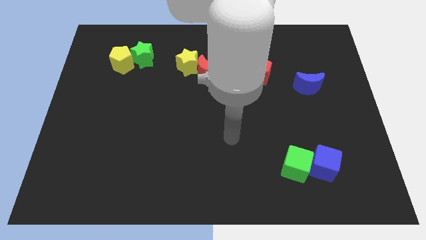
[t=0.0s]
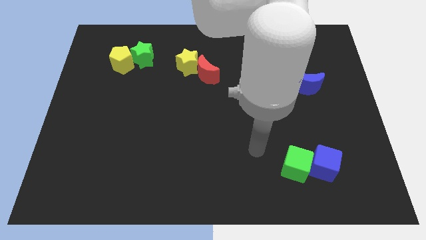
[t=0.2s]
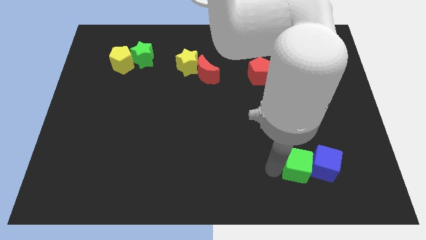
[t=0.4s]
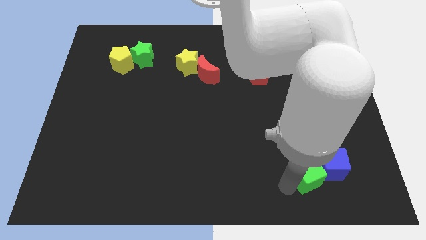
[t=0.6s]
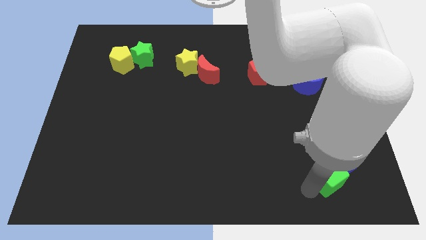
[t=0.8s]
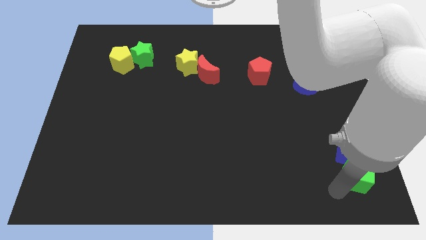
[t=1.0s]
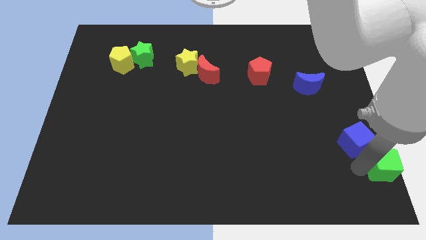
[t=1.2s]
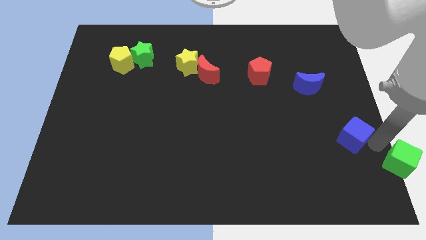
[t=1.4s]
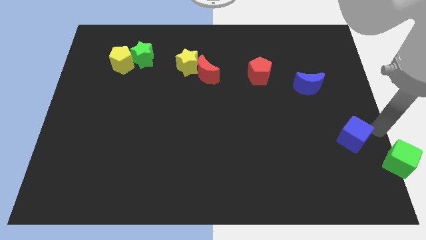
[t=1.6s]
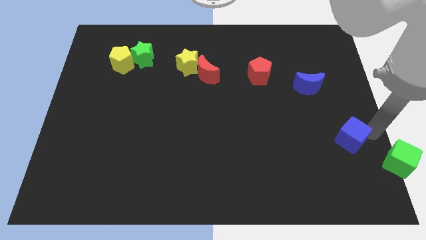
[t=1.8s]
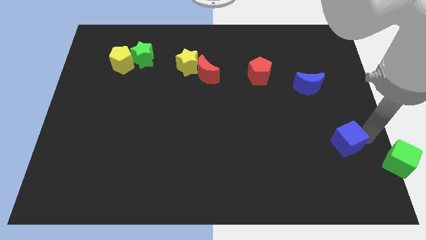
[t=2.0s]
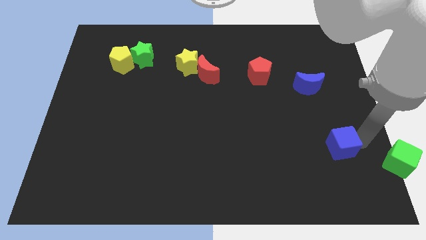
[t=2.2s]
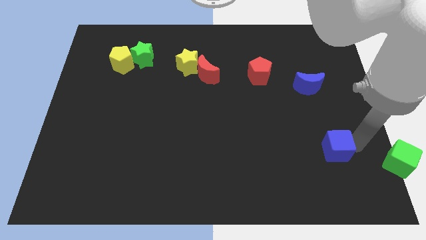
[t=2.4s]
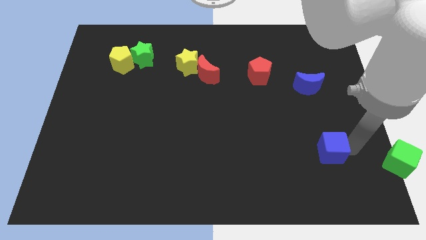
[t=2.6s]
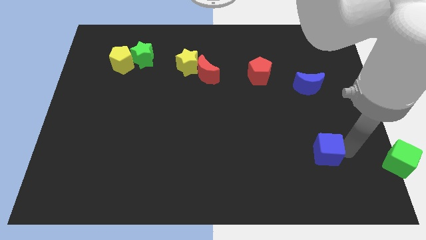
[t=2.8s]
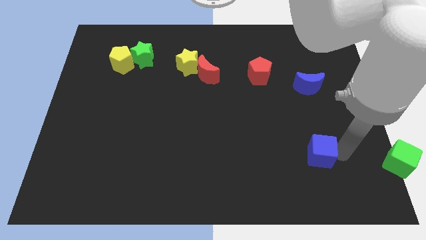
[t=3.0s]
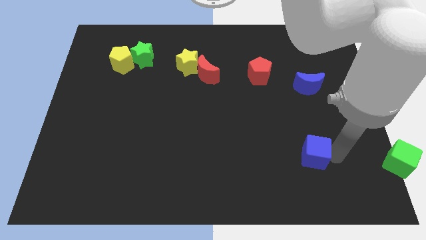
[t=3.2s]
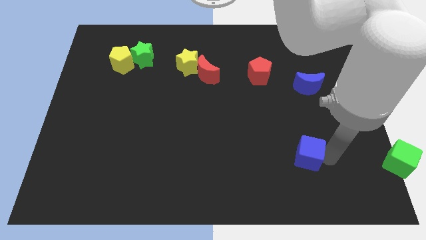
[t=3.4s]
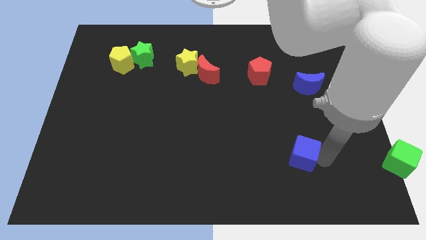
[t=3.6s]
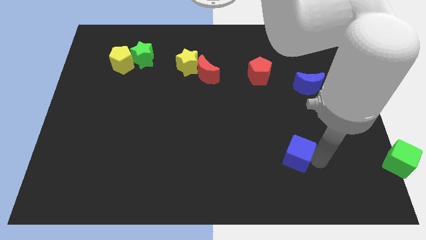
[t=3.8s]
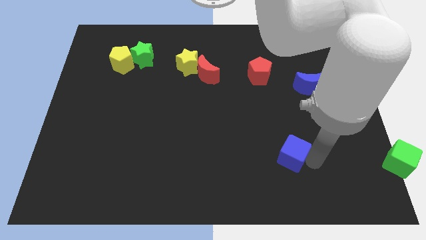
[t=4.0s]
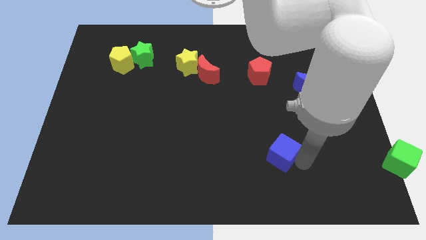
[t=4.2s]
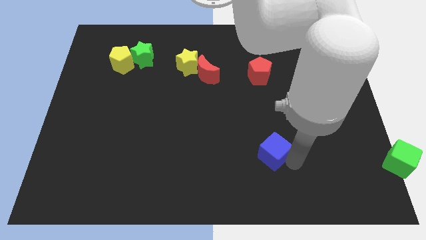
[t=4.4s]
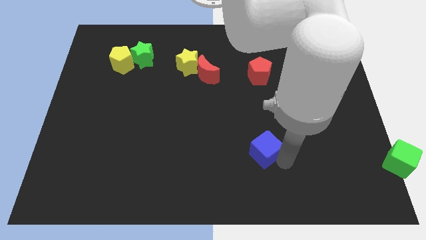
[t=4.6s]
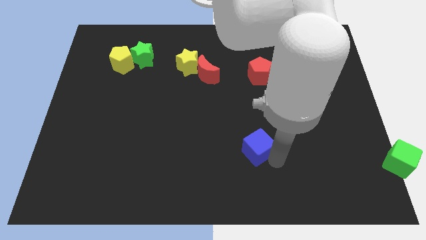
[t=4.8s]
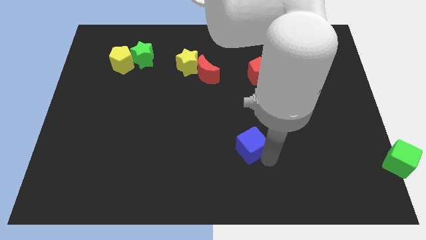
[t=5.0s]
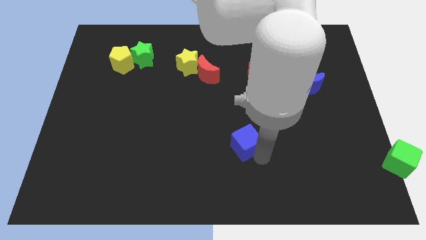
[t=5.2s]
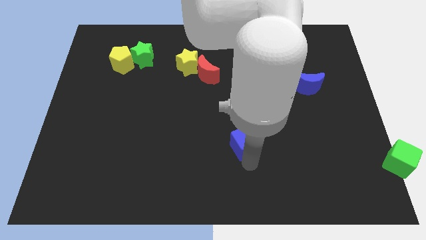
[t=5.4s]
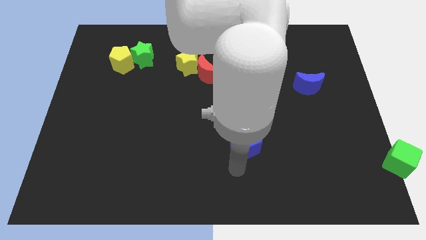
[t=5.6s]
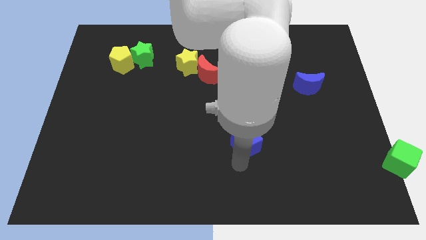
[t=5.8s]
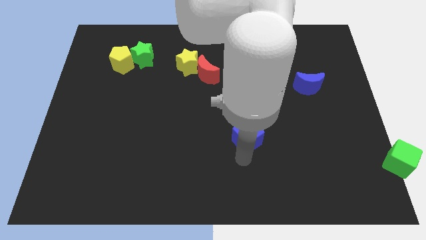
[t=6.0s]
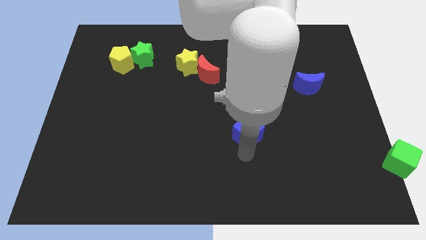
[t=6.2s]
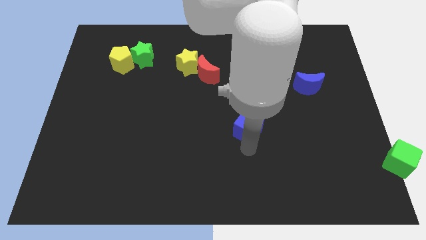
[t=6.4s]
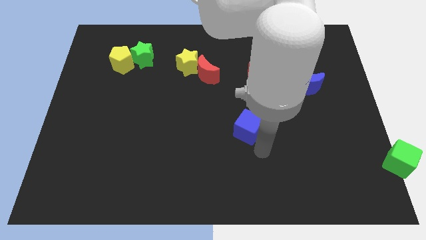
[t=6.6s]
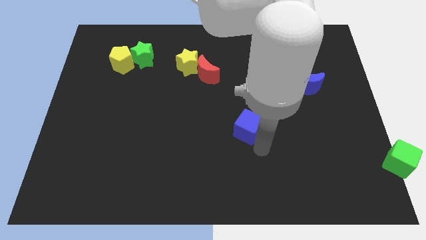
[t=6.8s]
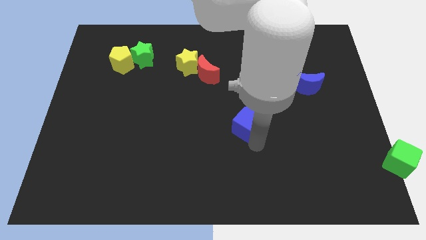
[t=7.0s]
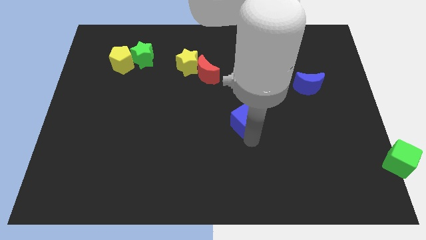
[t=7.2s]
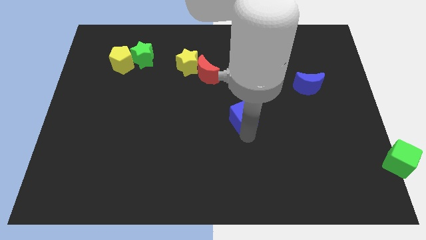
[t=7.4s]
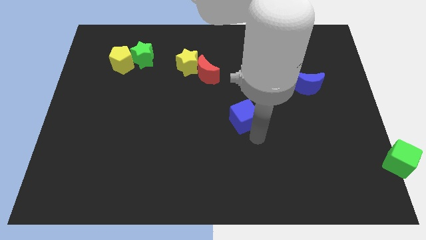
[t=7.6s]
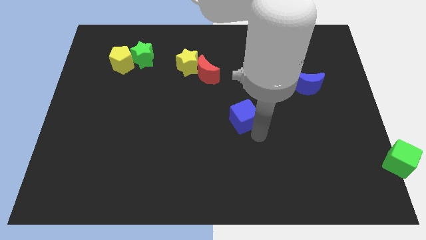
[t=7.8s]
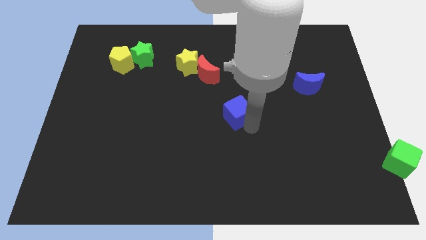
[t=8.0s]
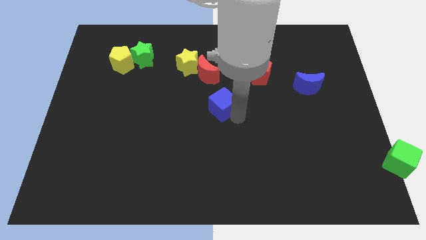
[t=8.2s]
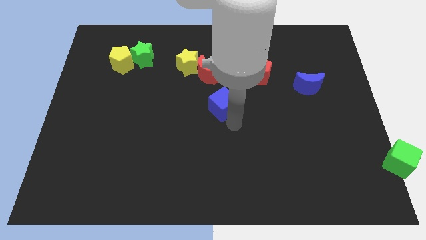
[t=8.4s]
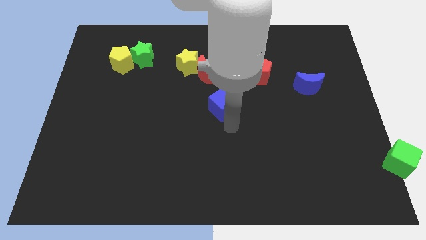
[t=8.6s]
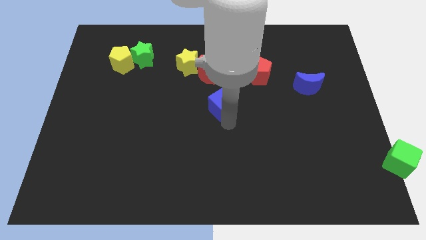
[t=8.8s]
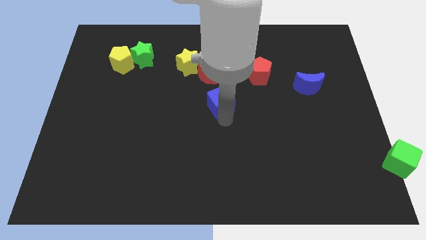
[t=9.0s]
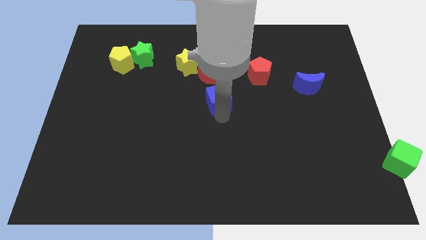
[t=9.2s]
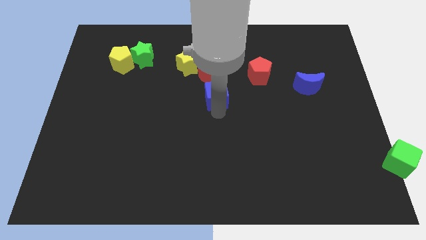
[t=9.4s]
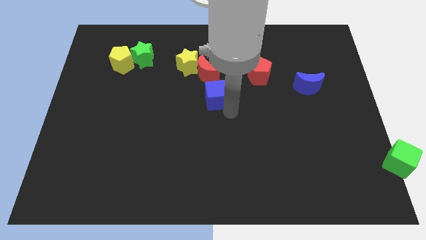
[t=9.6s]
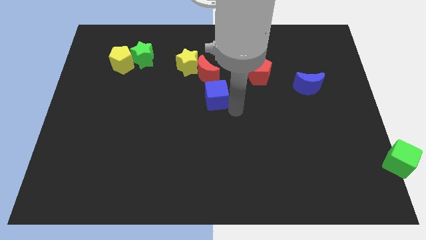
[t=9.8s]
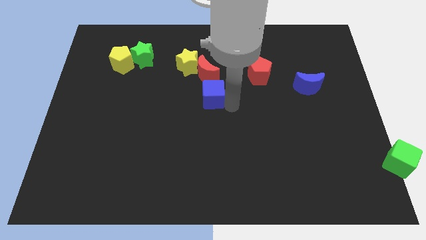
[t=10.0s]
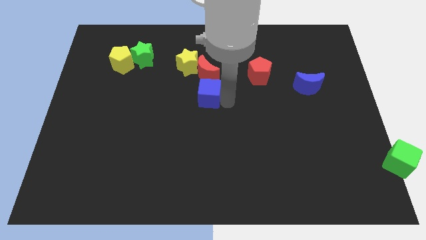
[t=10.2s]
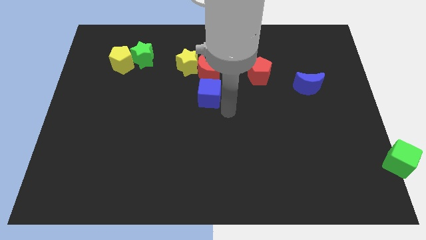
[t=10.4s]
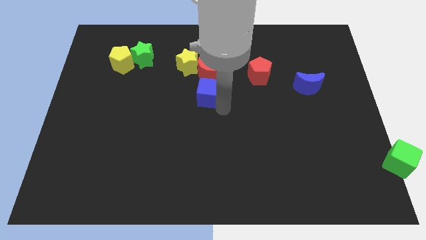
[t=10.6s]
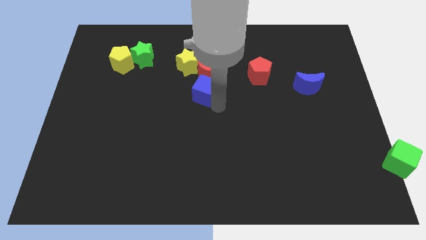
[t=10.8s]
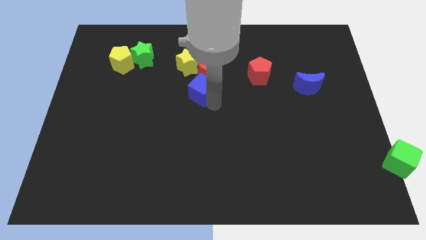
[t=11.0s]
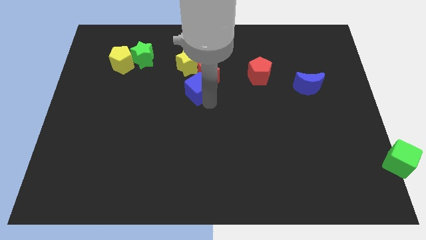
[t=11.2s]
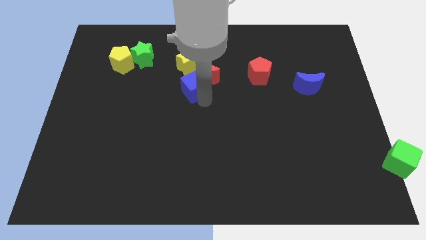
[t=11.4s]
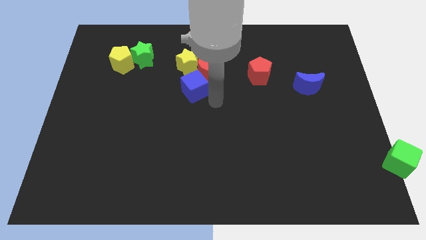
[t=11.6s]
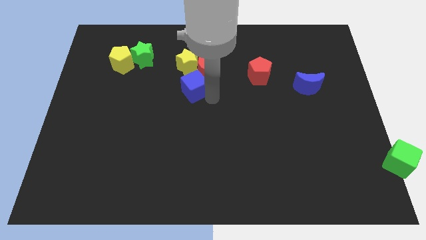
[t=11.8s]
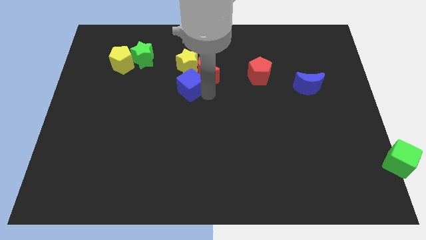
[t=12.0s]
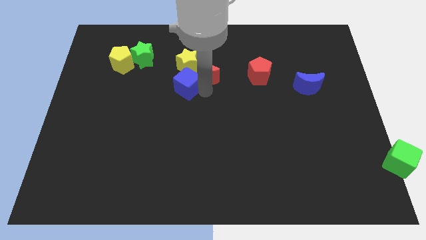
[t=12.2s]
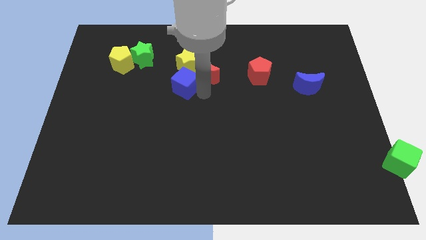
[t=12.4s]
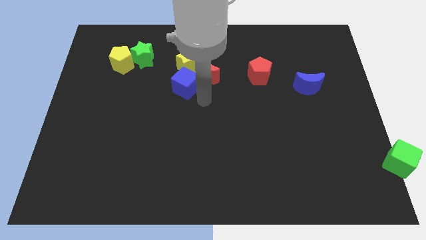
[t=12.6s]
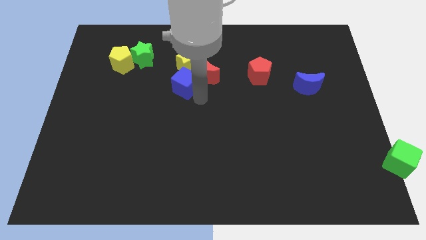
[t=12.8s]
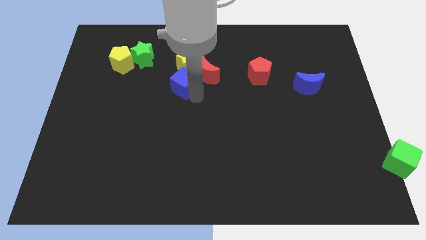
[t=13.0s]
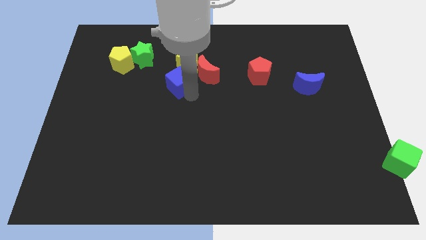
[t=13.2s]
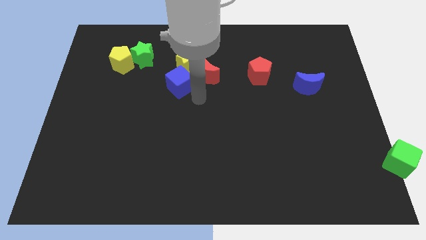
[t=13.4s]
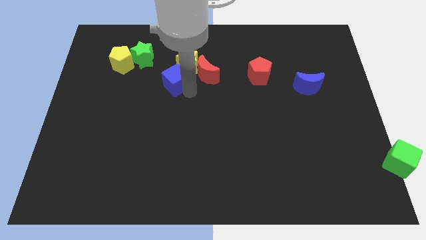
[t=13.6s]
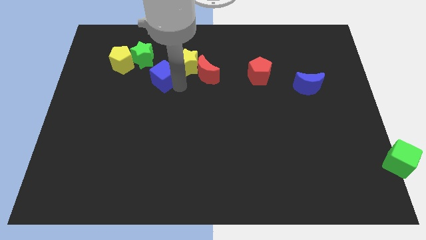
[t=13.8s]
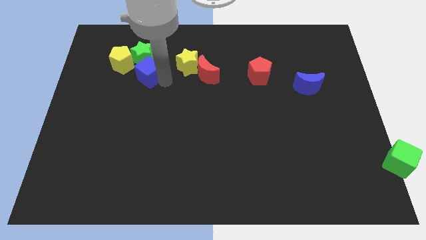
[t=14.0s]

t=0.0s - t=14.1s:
push the blue cube next to the green star

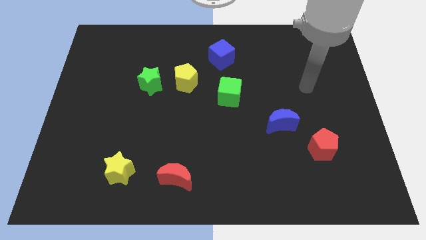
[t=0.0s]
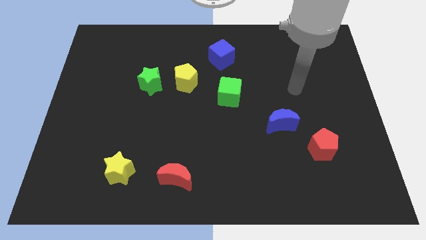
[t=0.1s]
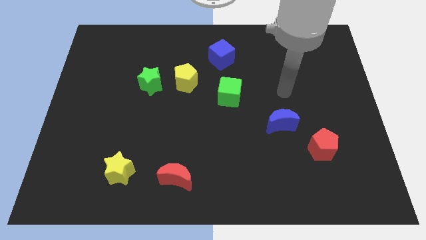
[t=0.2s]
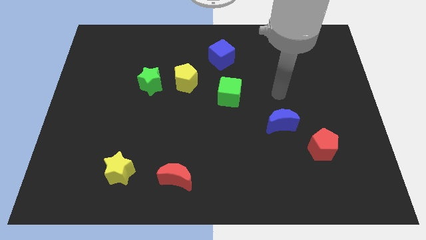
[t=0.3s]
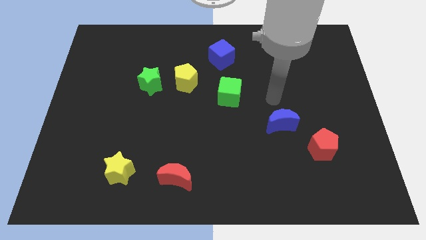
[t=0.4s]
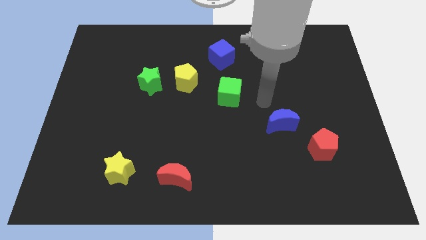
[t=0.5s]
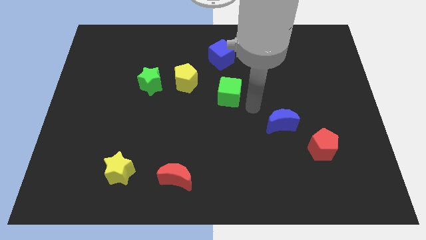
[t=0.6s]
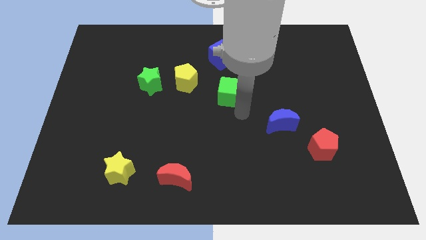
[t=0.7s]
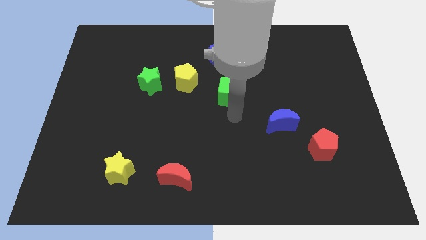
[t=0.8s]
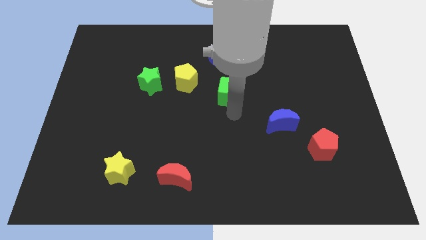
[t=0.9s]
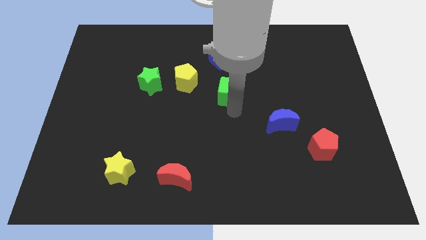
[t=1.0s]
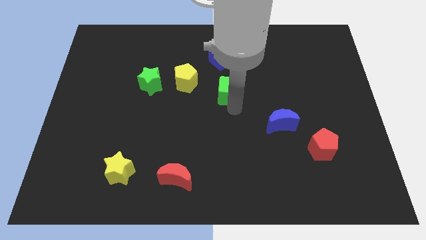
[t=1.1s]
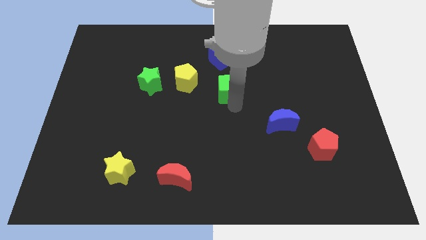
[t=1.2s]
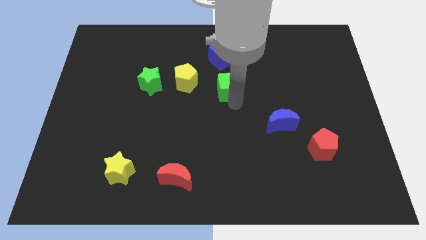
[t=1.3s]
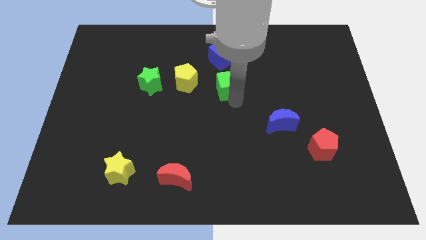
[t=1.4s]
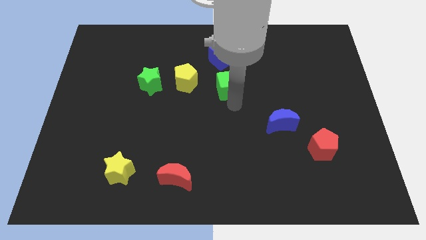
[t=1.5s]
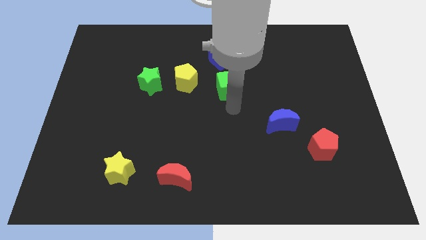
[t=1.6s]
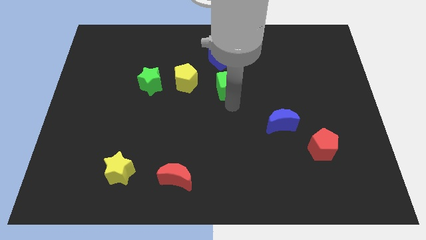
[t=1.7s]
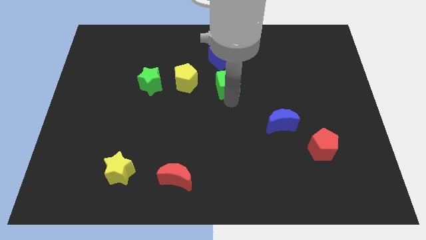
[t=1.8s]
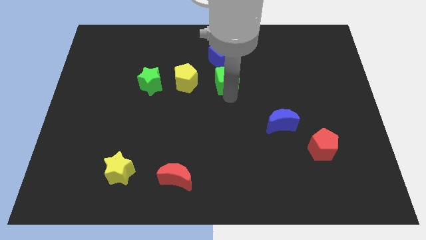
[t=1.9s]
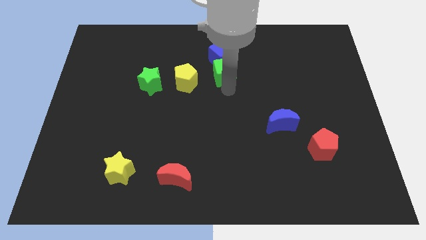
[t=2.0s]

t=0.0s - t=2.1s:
slide the green cube to the blue cube
